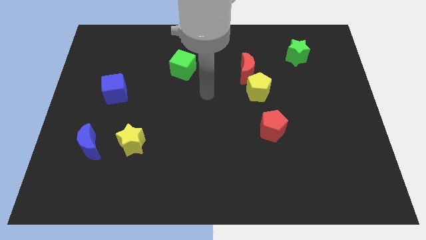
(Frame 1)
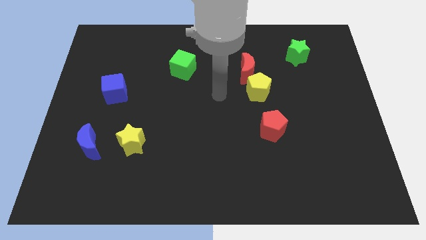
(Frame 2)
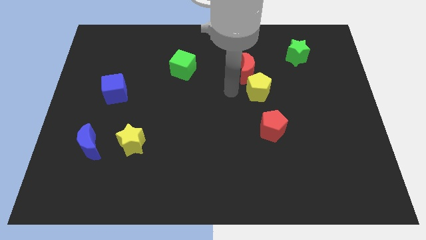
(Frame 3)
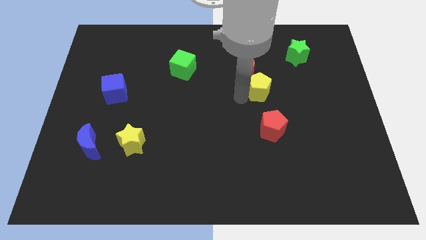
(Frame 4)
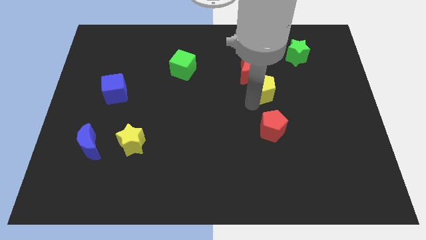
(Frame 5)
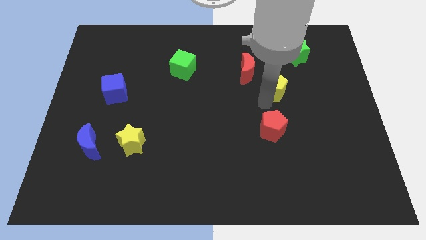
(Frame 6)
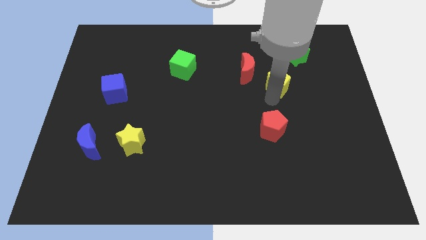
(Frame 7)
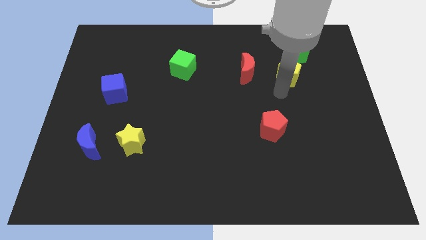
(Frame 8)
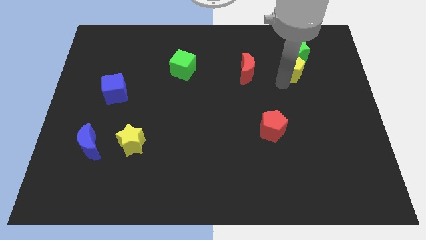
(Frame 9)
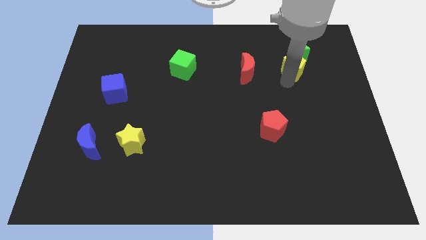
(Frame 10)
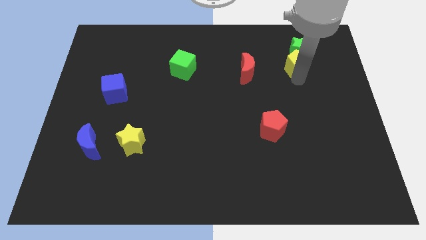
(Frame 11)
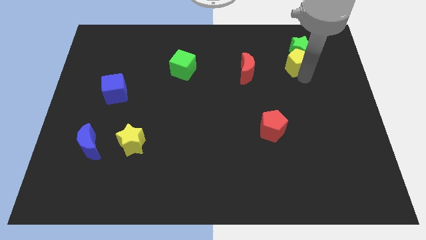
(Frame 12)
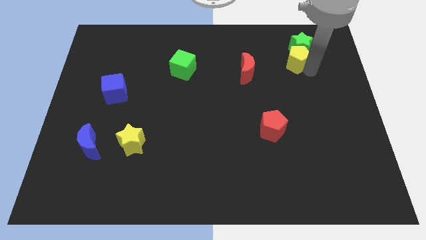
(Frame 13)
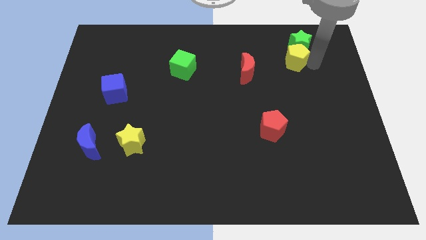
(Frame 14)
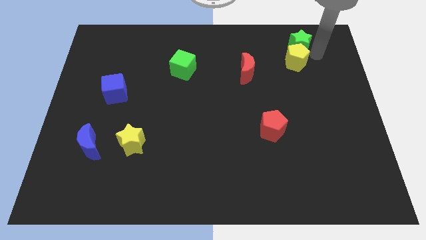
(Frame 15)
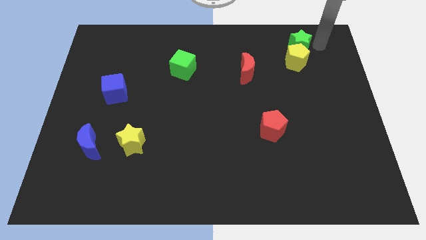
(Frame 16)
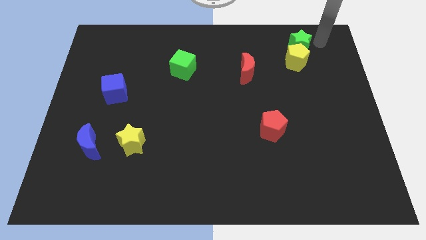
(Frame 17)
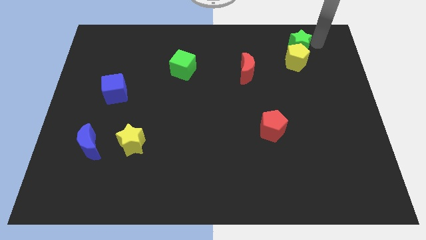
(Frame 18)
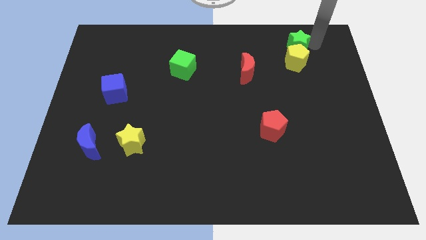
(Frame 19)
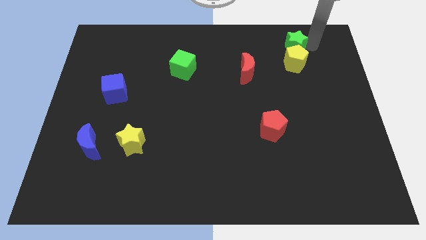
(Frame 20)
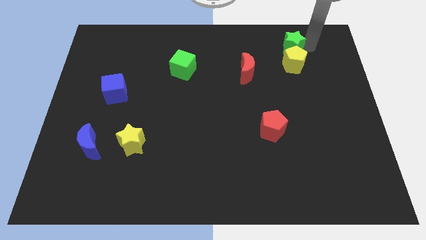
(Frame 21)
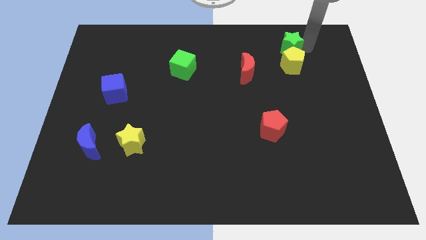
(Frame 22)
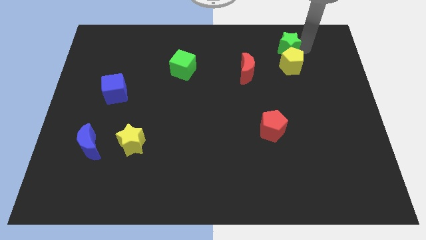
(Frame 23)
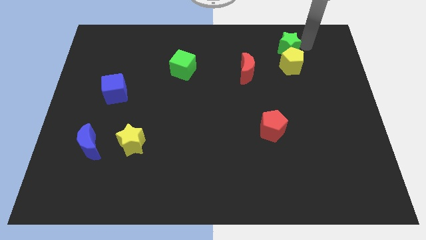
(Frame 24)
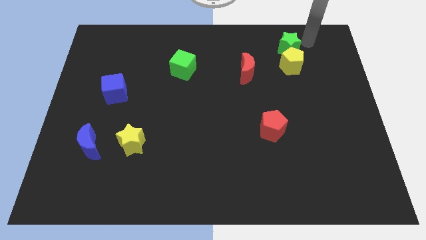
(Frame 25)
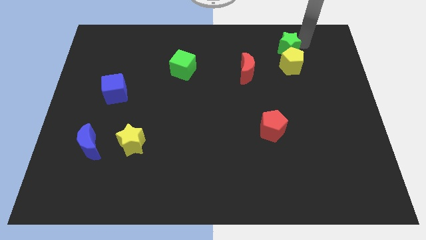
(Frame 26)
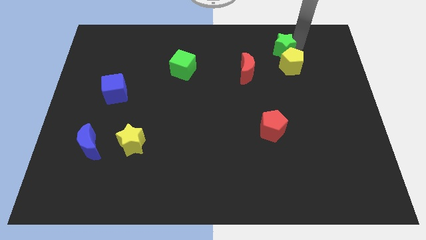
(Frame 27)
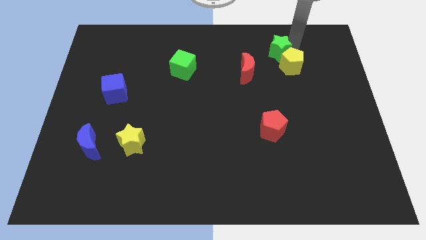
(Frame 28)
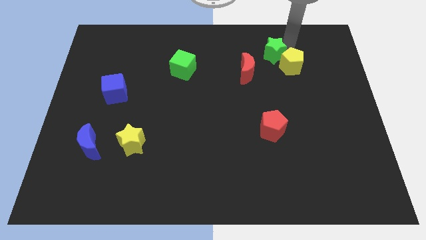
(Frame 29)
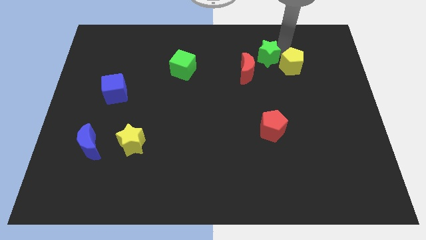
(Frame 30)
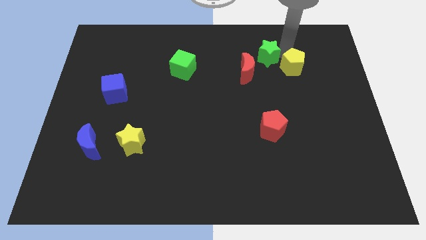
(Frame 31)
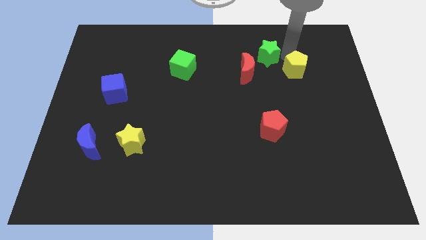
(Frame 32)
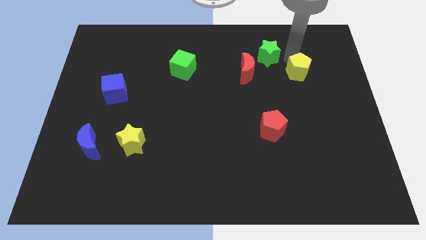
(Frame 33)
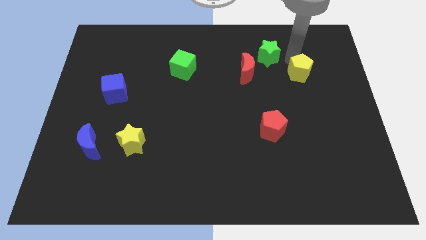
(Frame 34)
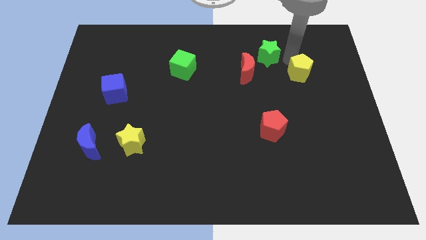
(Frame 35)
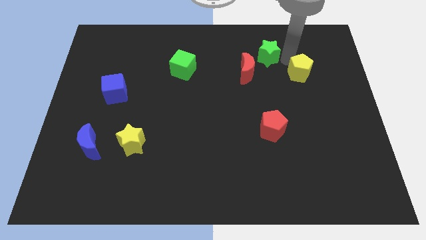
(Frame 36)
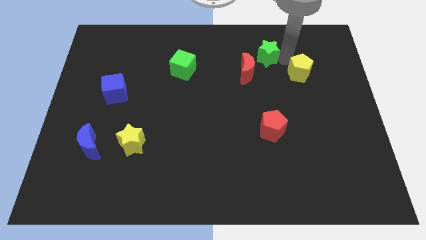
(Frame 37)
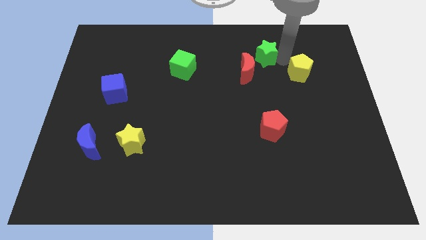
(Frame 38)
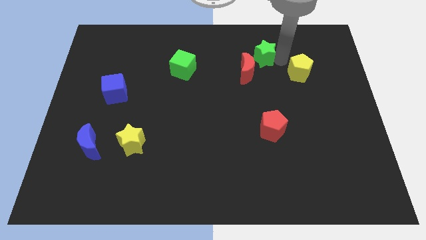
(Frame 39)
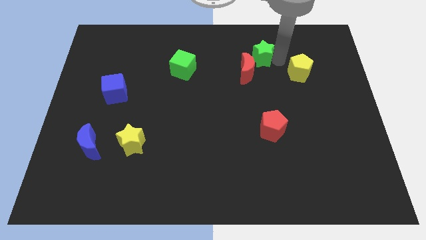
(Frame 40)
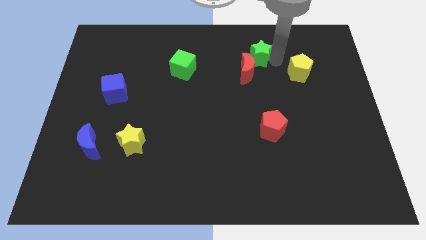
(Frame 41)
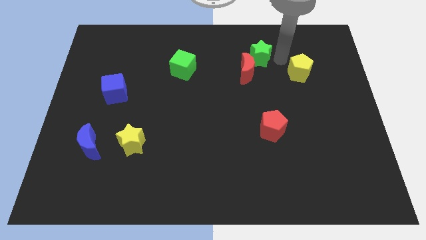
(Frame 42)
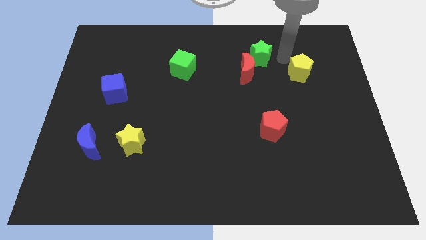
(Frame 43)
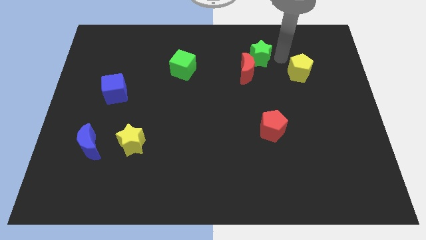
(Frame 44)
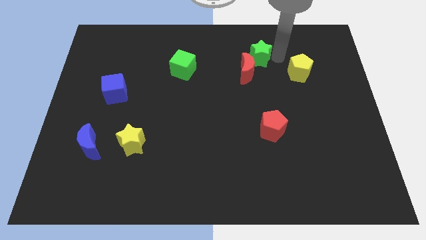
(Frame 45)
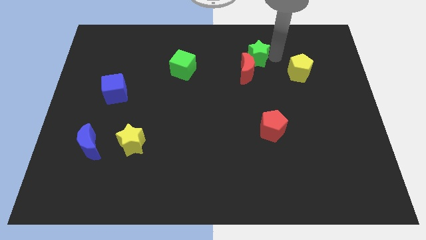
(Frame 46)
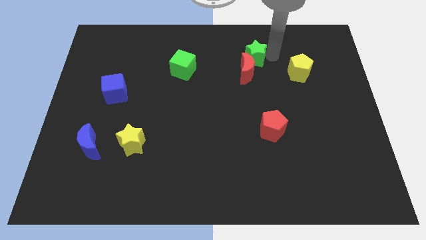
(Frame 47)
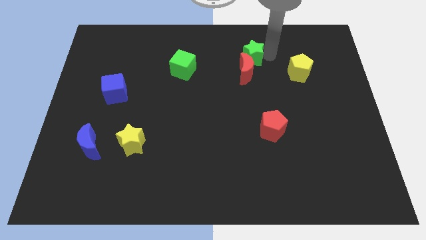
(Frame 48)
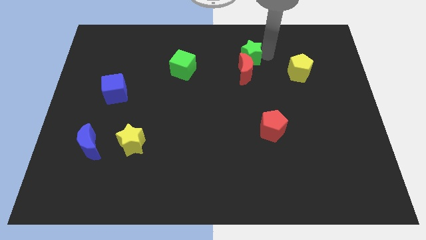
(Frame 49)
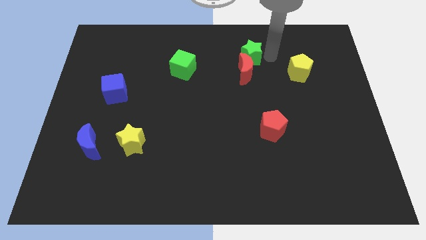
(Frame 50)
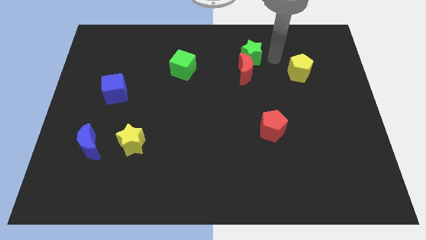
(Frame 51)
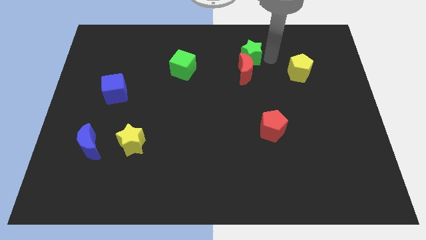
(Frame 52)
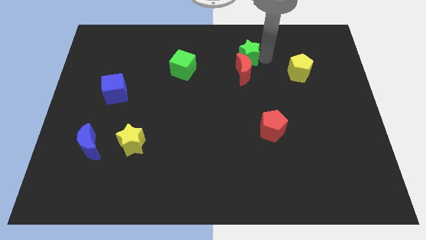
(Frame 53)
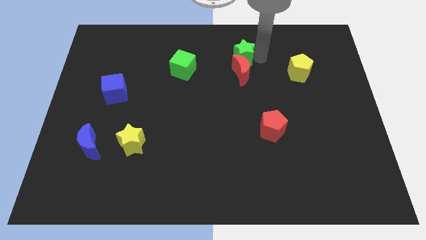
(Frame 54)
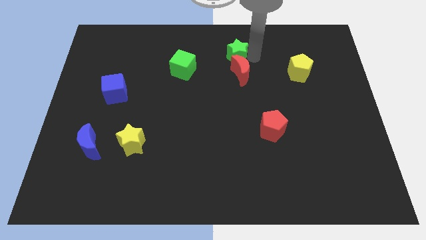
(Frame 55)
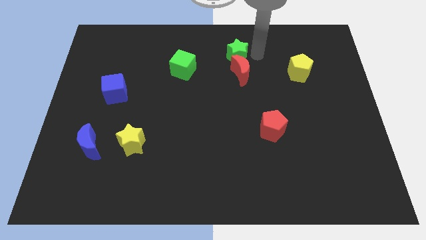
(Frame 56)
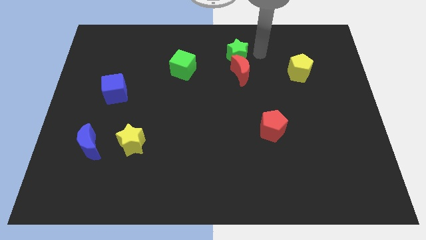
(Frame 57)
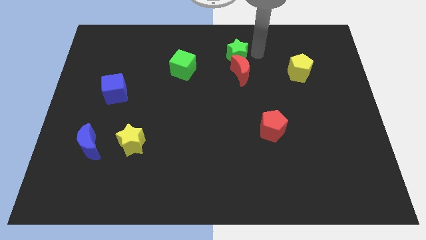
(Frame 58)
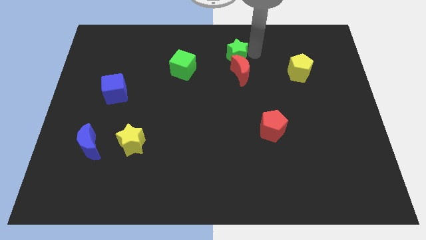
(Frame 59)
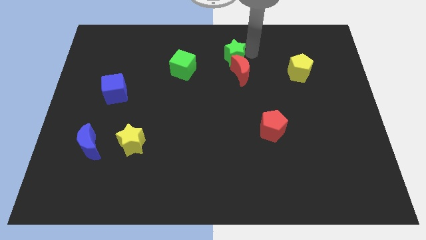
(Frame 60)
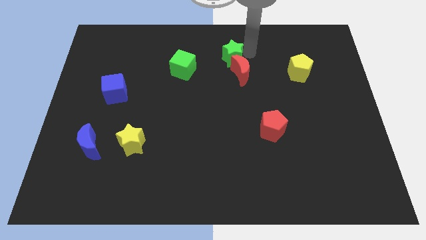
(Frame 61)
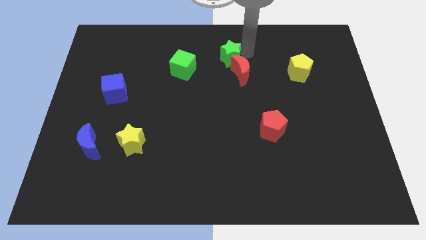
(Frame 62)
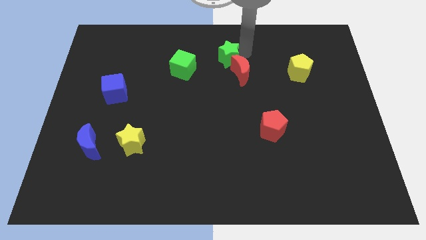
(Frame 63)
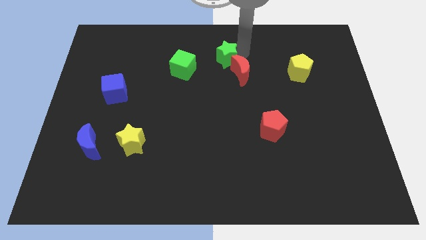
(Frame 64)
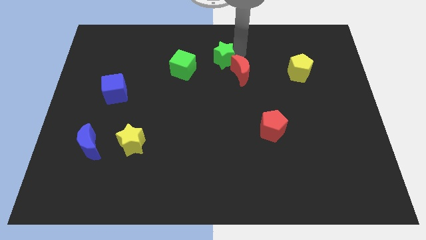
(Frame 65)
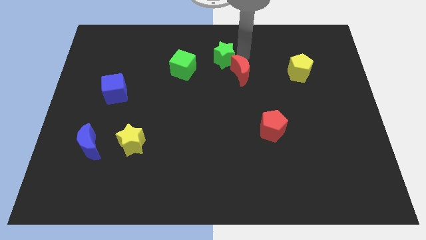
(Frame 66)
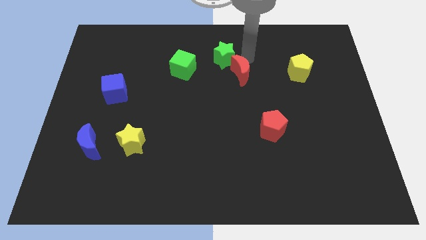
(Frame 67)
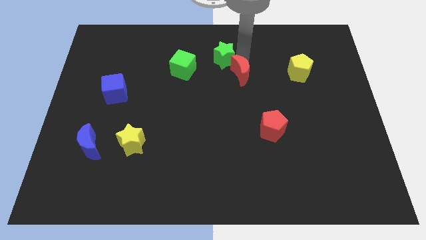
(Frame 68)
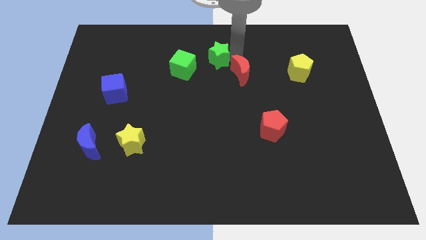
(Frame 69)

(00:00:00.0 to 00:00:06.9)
move the green star to the left

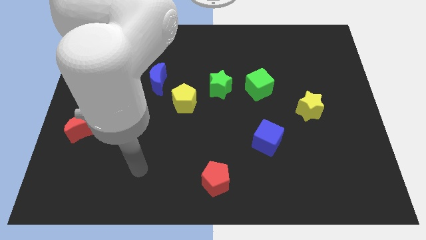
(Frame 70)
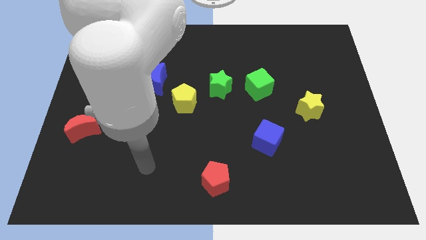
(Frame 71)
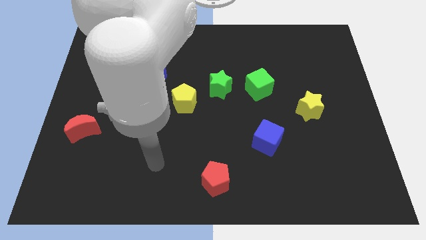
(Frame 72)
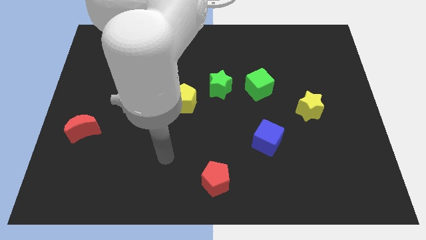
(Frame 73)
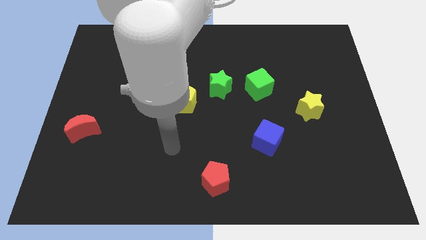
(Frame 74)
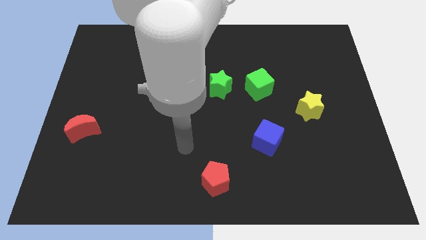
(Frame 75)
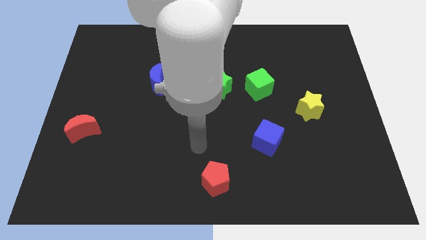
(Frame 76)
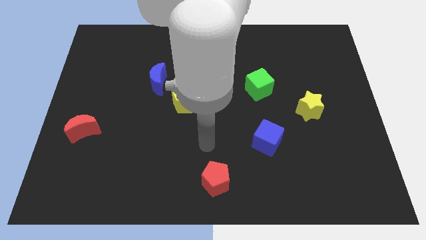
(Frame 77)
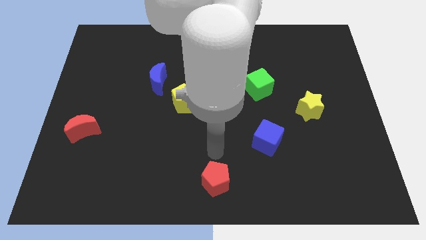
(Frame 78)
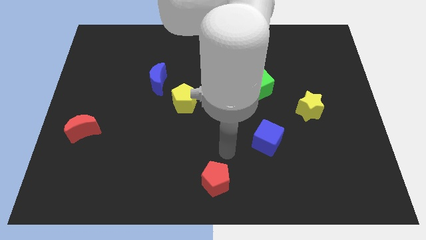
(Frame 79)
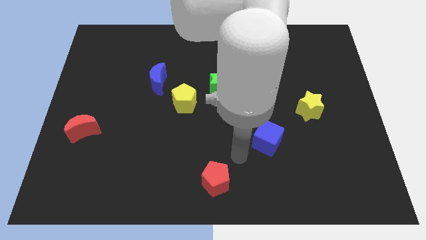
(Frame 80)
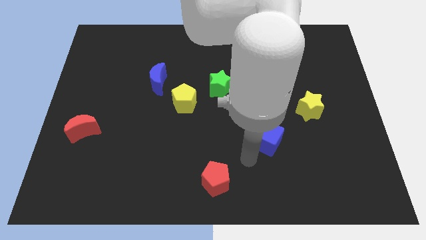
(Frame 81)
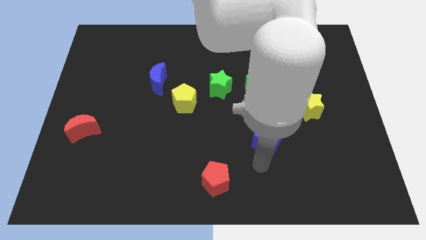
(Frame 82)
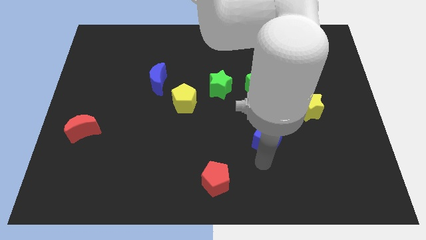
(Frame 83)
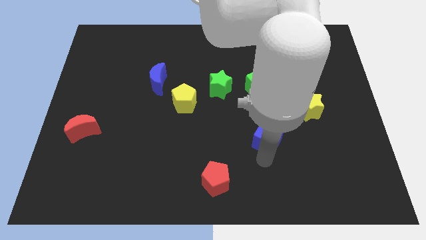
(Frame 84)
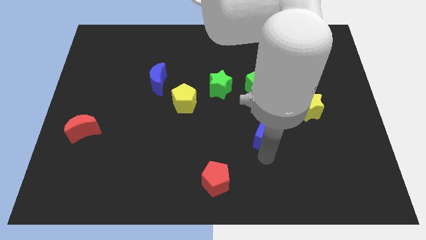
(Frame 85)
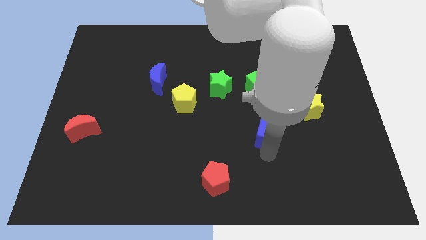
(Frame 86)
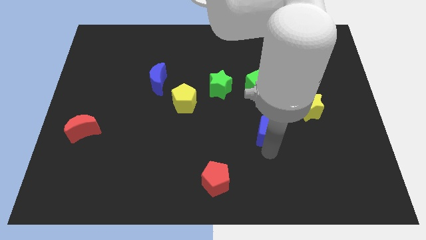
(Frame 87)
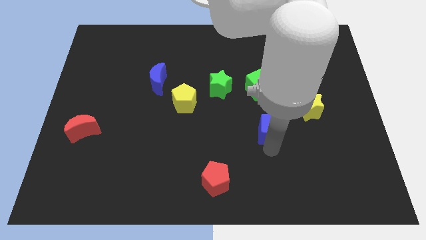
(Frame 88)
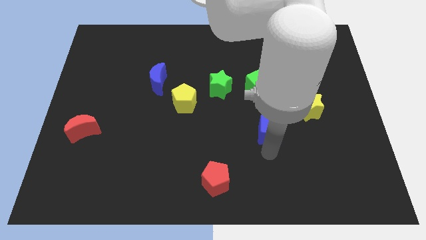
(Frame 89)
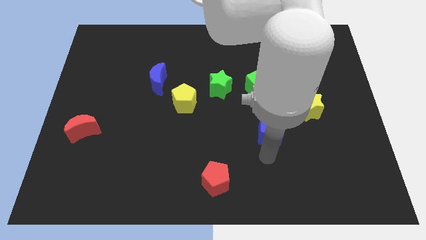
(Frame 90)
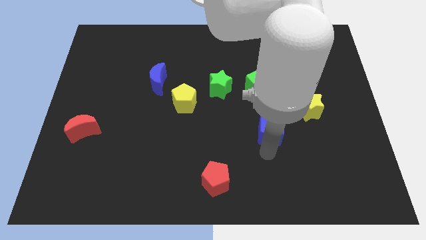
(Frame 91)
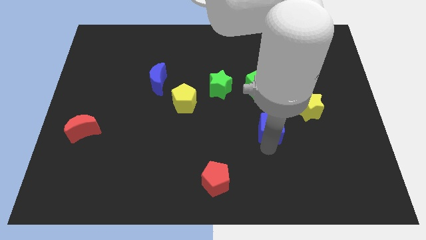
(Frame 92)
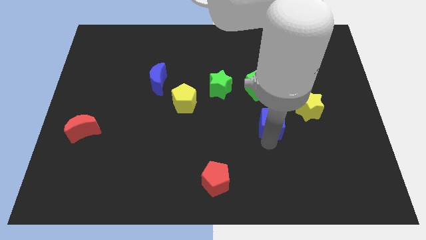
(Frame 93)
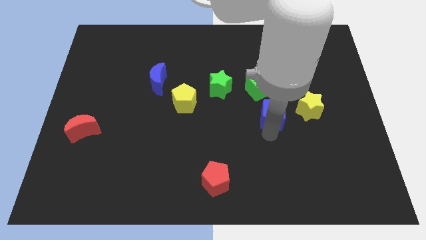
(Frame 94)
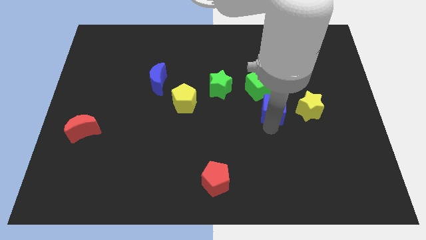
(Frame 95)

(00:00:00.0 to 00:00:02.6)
push the blue cube upwards a little bit
